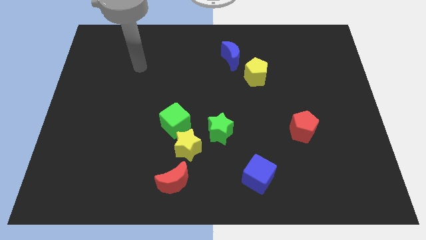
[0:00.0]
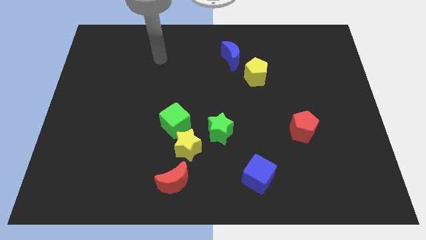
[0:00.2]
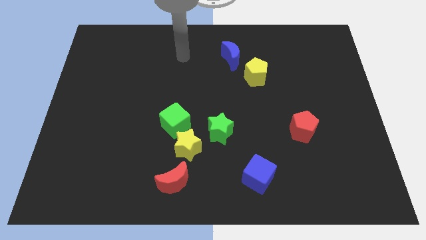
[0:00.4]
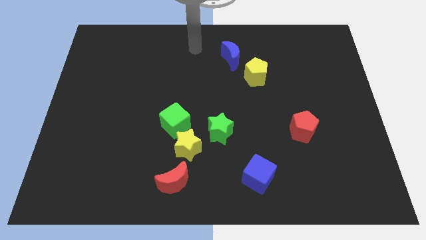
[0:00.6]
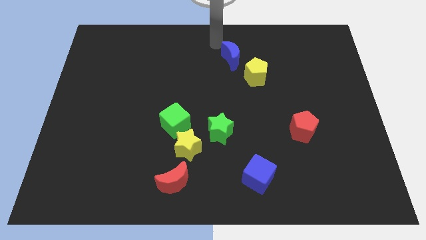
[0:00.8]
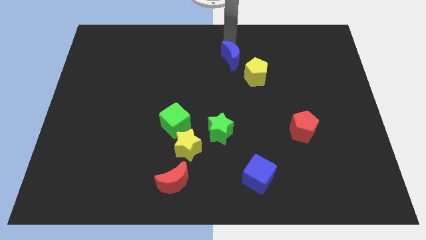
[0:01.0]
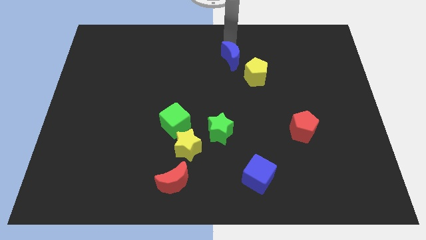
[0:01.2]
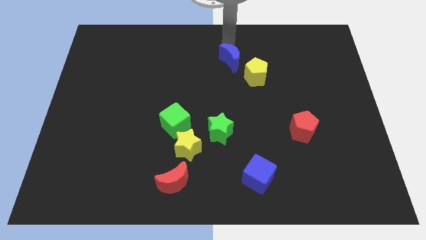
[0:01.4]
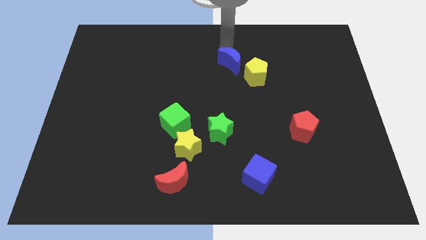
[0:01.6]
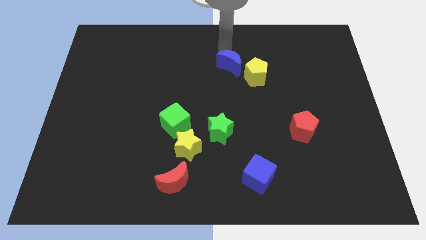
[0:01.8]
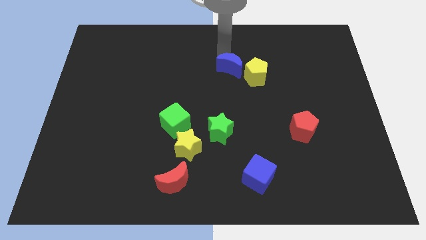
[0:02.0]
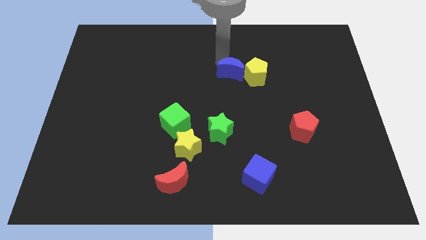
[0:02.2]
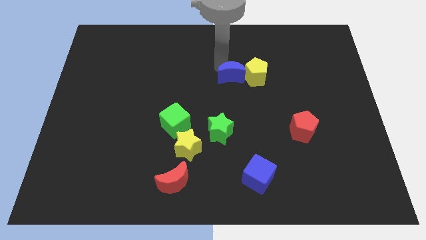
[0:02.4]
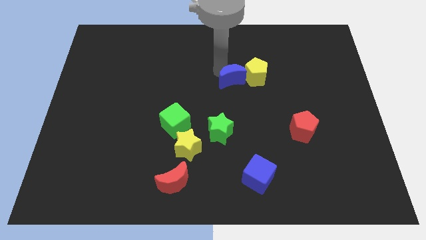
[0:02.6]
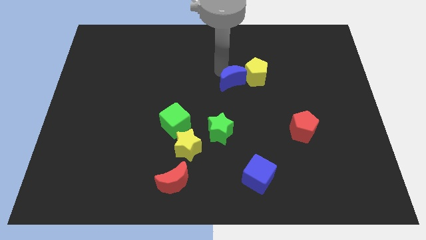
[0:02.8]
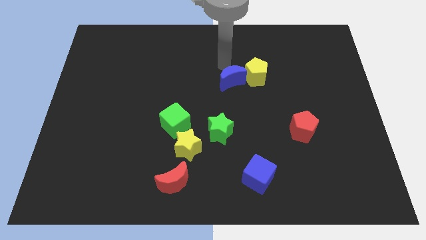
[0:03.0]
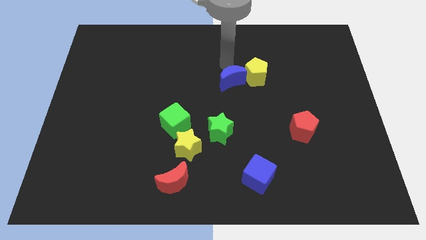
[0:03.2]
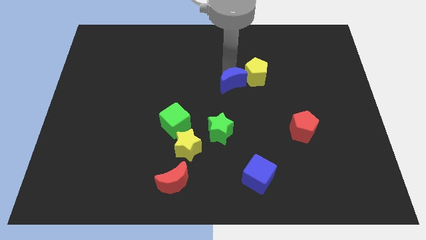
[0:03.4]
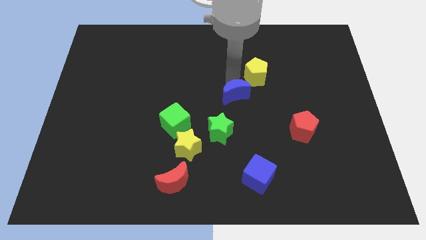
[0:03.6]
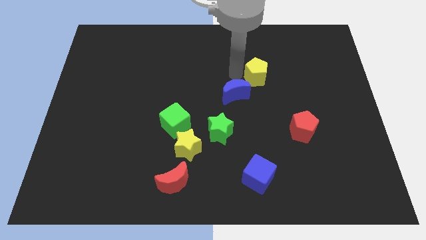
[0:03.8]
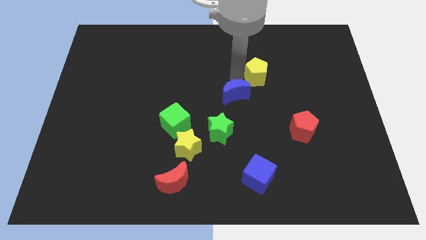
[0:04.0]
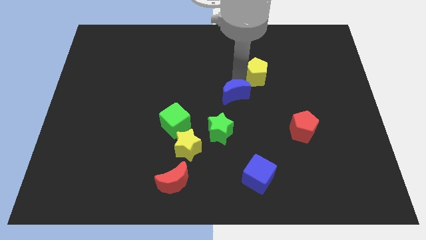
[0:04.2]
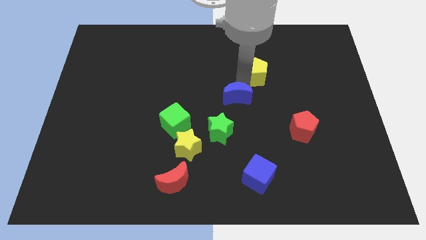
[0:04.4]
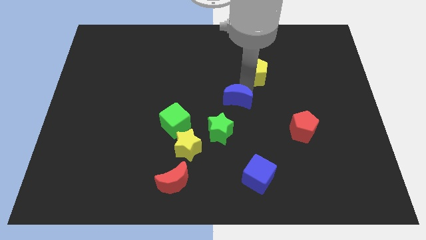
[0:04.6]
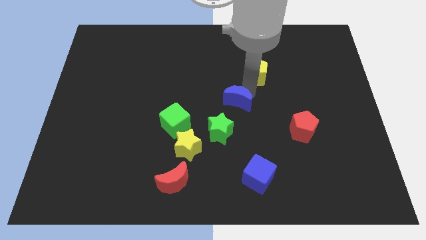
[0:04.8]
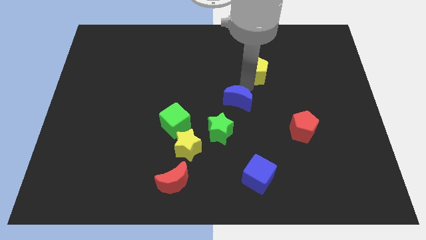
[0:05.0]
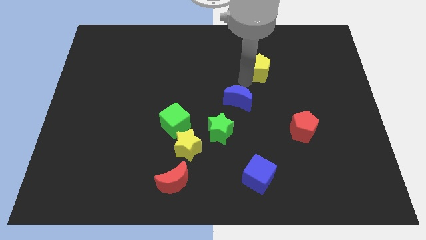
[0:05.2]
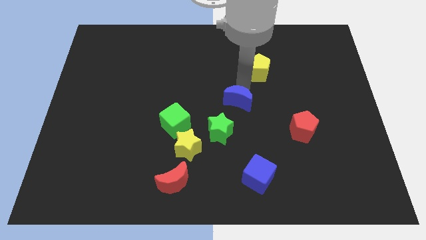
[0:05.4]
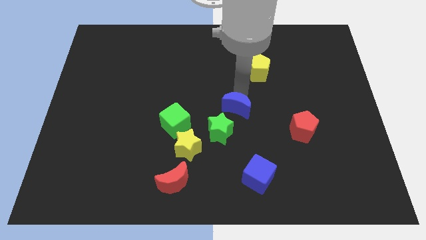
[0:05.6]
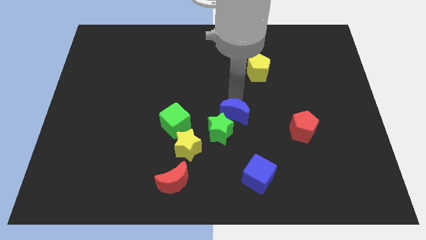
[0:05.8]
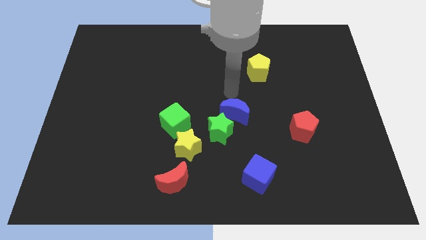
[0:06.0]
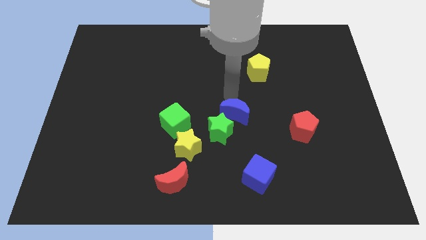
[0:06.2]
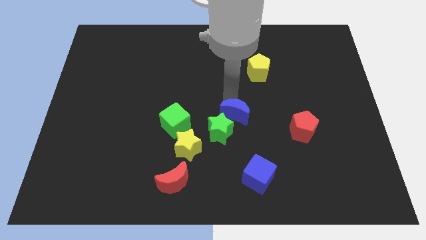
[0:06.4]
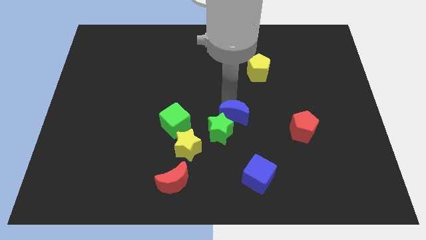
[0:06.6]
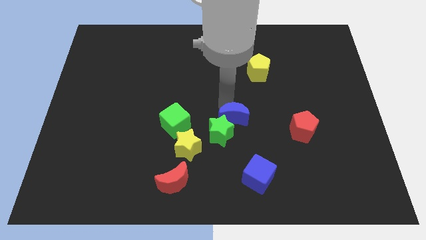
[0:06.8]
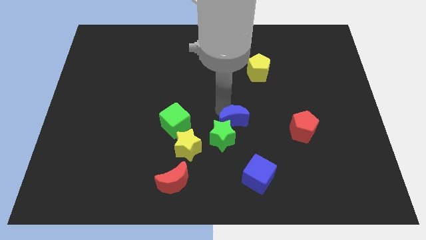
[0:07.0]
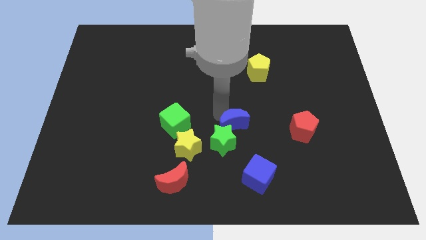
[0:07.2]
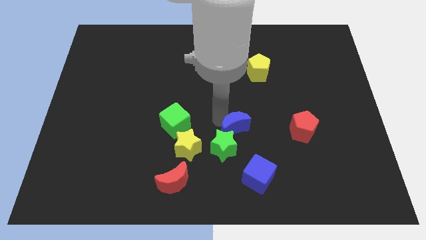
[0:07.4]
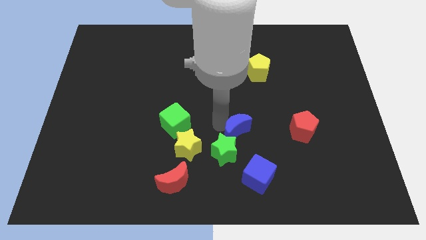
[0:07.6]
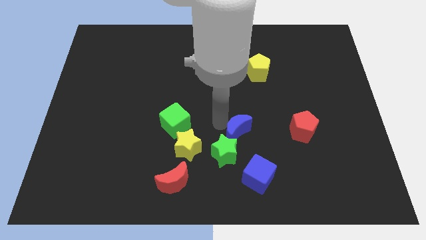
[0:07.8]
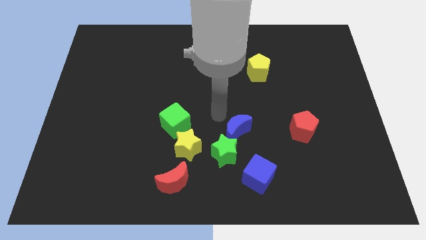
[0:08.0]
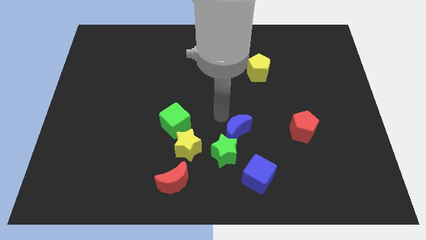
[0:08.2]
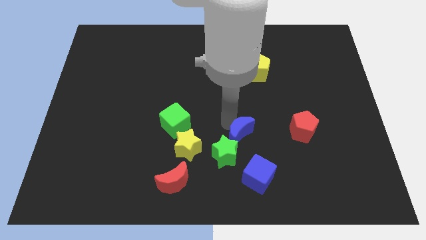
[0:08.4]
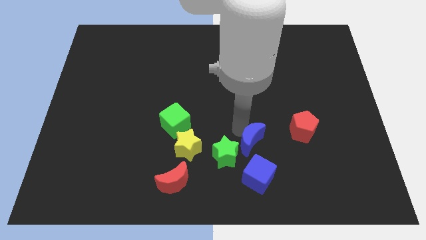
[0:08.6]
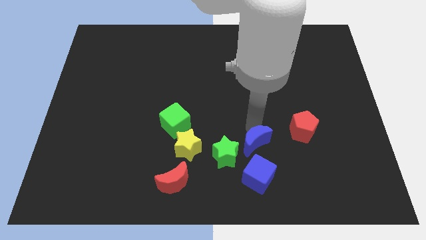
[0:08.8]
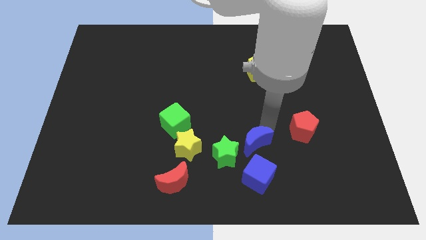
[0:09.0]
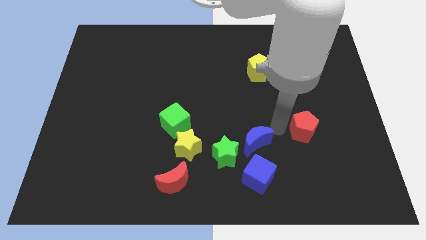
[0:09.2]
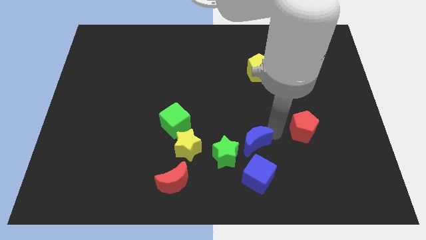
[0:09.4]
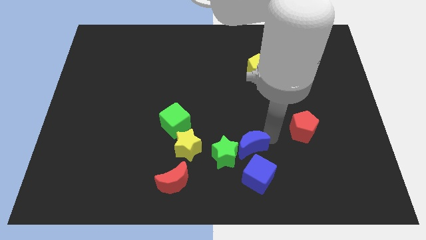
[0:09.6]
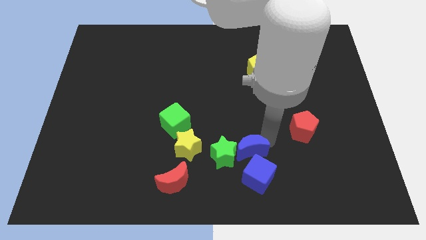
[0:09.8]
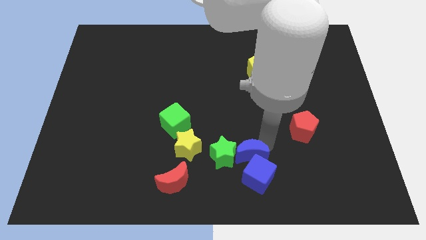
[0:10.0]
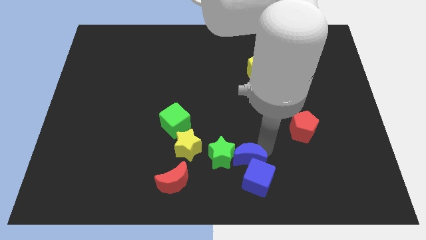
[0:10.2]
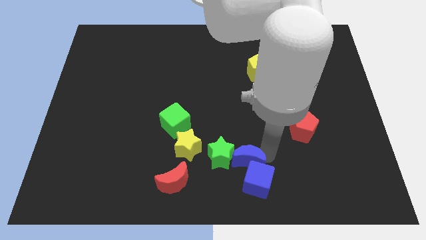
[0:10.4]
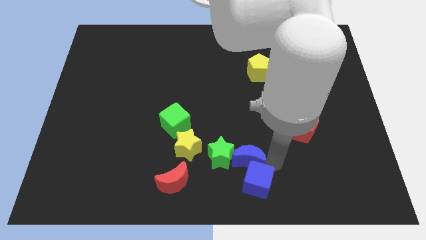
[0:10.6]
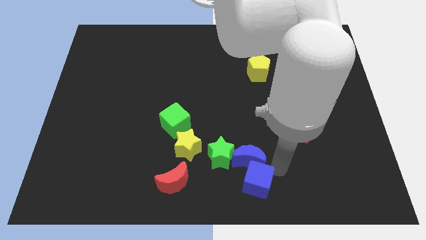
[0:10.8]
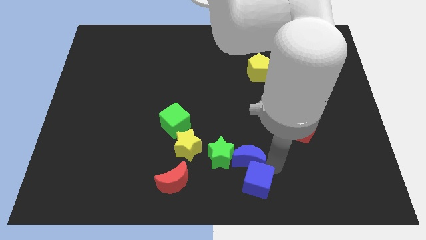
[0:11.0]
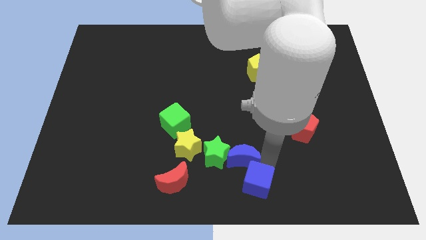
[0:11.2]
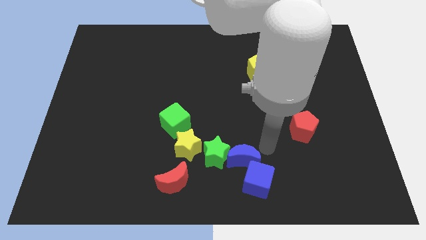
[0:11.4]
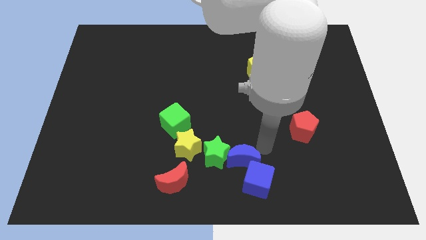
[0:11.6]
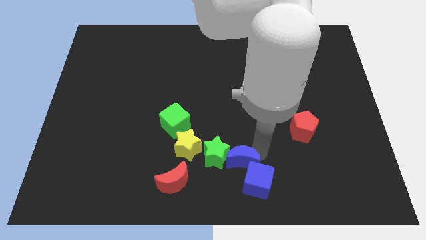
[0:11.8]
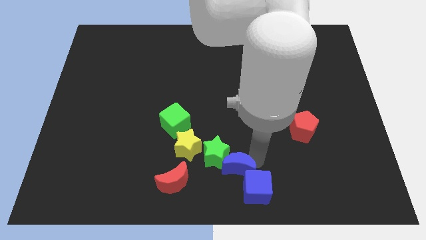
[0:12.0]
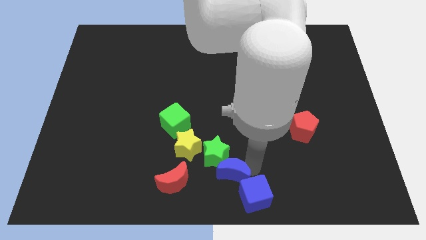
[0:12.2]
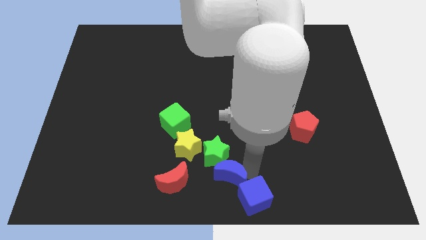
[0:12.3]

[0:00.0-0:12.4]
slide the blue moon left of the blue cube

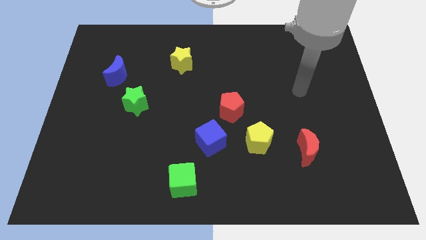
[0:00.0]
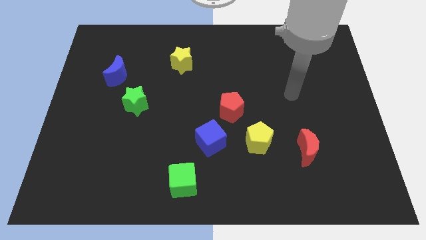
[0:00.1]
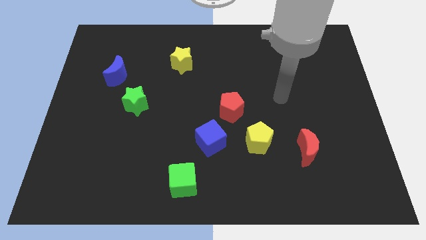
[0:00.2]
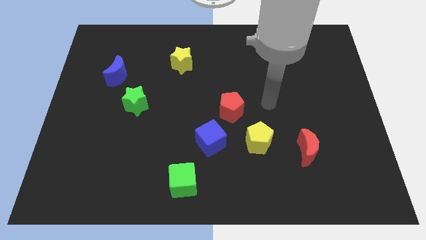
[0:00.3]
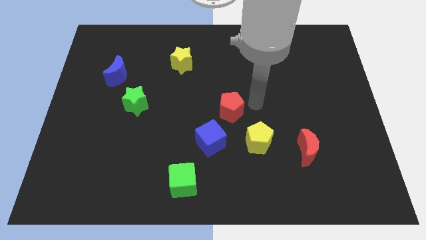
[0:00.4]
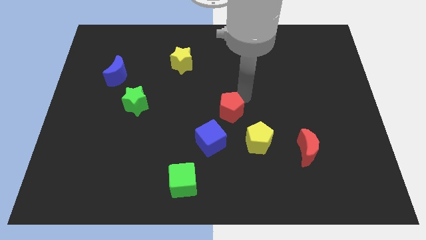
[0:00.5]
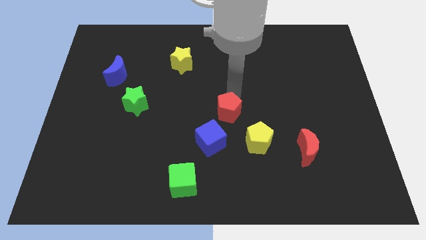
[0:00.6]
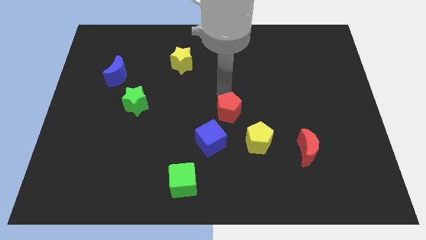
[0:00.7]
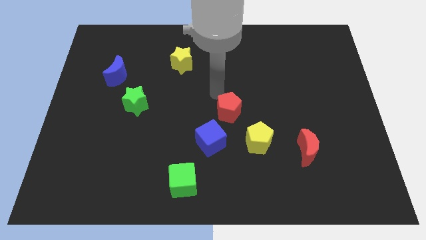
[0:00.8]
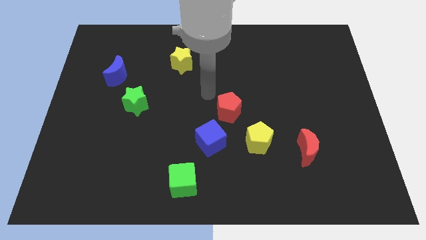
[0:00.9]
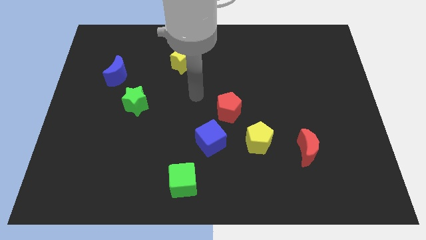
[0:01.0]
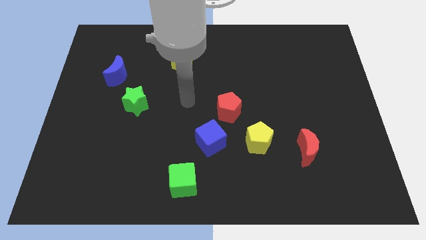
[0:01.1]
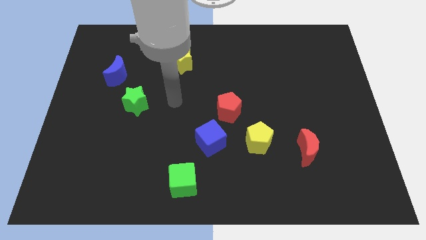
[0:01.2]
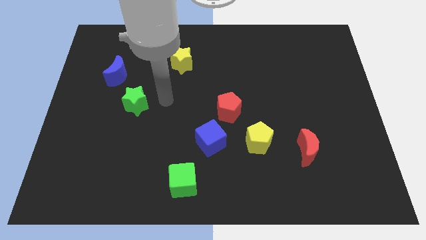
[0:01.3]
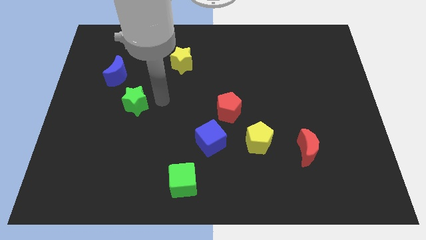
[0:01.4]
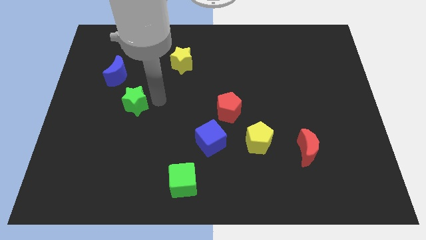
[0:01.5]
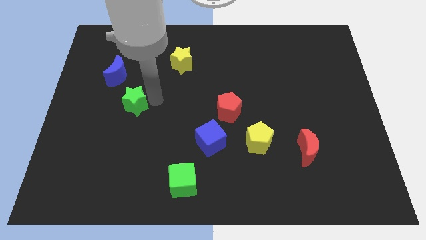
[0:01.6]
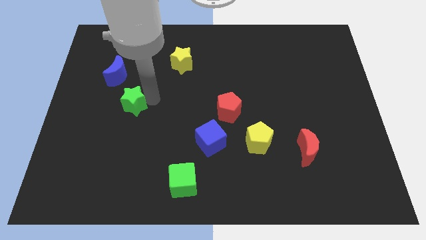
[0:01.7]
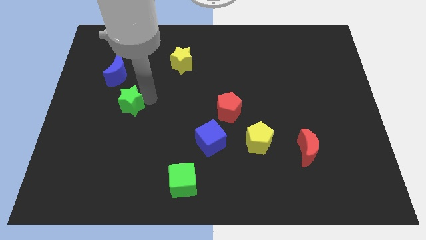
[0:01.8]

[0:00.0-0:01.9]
move the green star to the bottom of the blue moon
